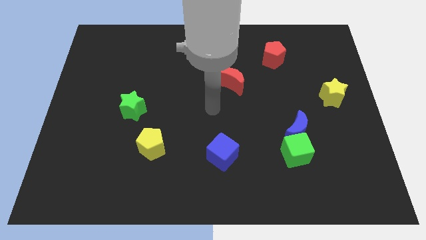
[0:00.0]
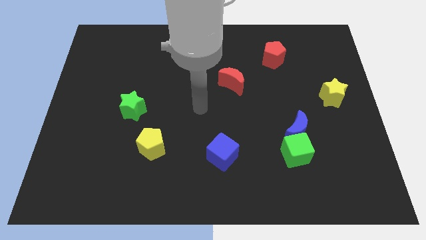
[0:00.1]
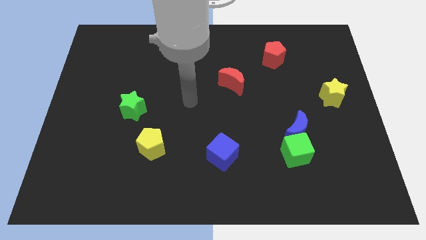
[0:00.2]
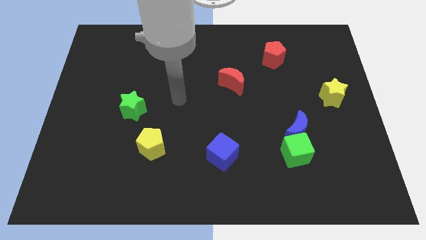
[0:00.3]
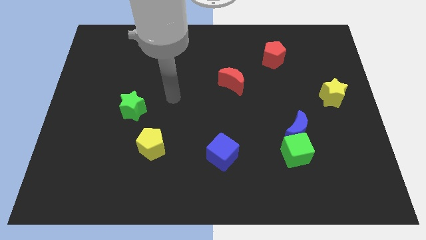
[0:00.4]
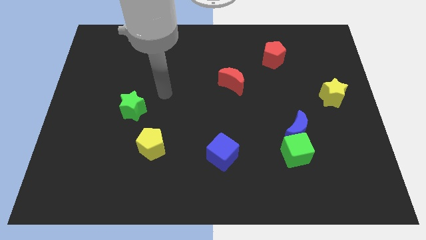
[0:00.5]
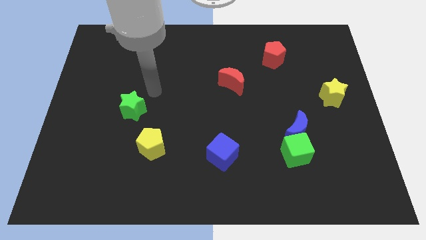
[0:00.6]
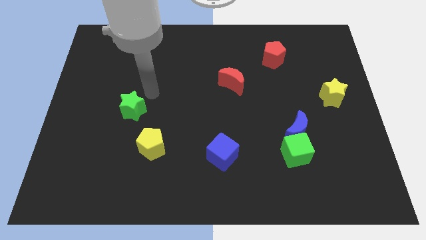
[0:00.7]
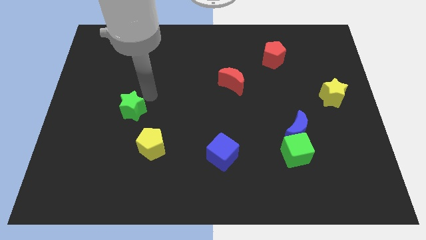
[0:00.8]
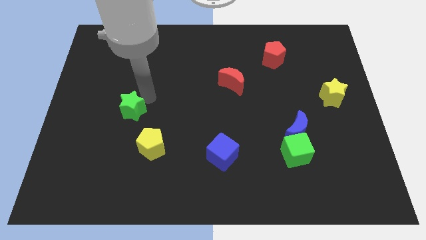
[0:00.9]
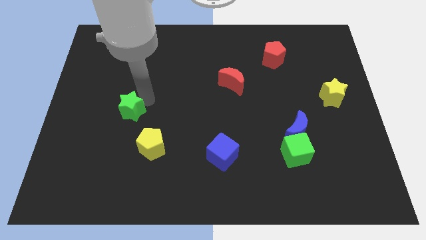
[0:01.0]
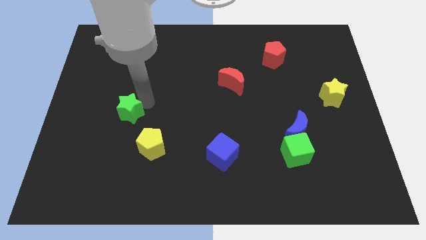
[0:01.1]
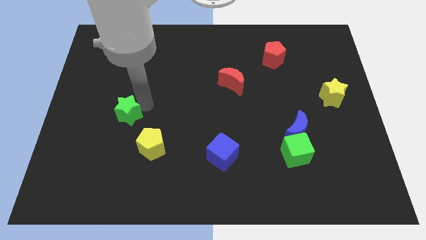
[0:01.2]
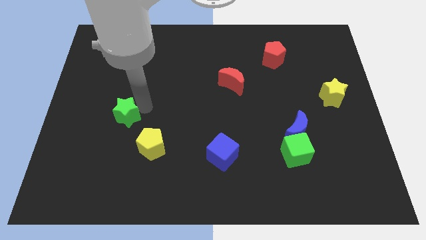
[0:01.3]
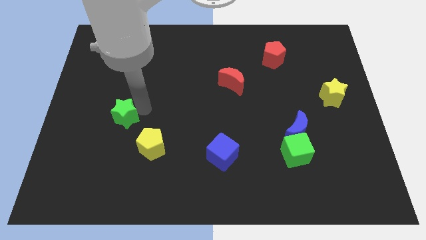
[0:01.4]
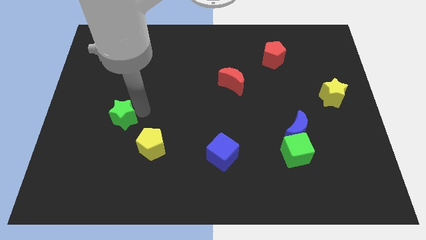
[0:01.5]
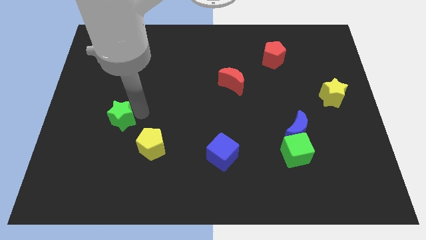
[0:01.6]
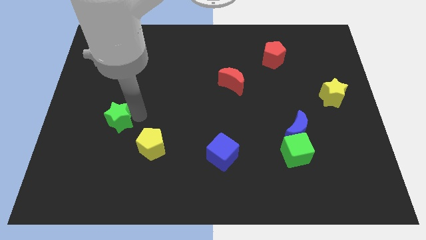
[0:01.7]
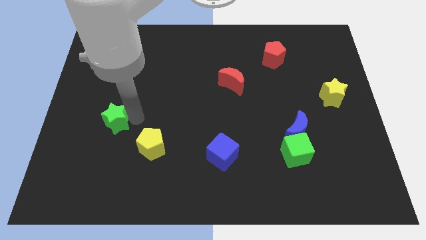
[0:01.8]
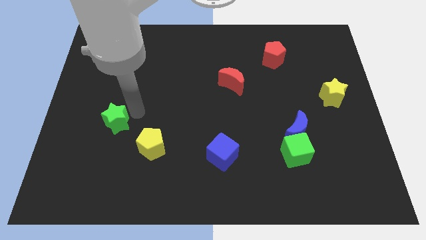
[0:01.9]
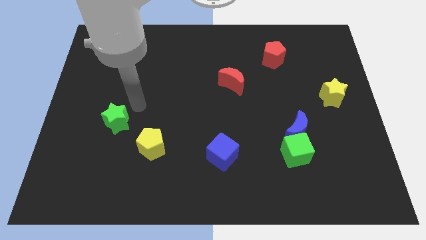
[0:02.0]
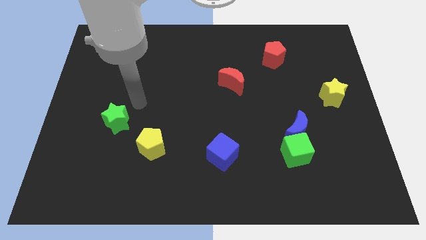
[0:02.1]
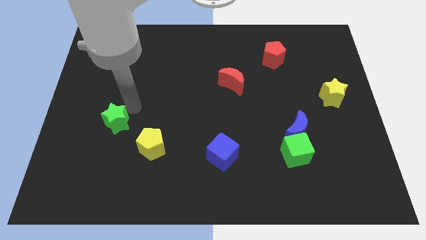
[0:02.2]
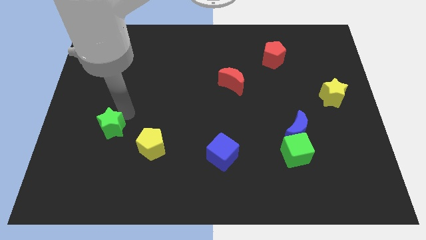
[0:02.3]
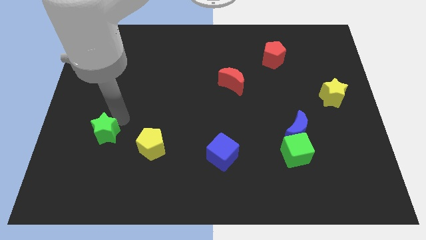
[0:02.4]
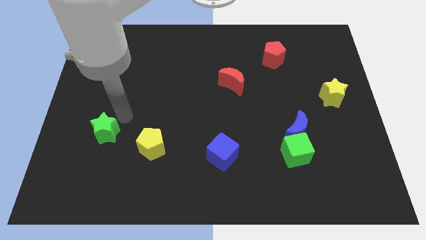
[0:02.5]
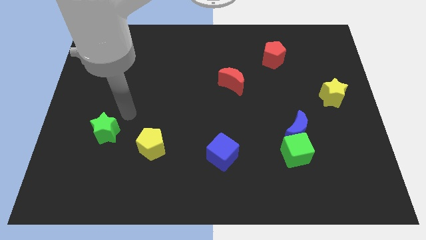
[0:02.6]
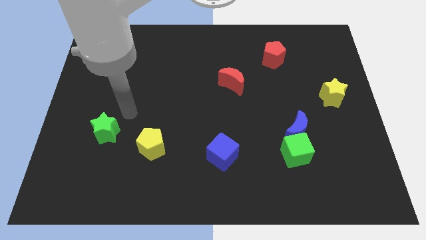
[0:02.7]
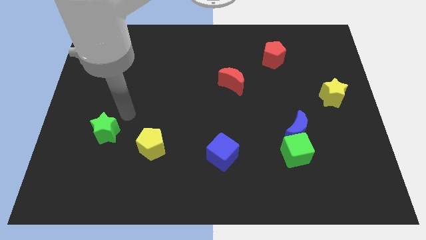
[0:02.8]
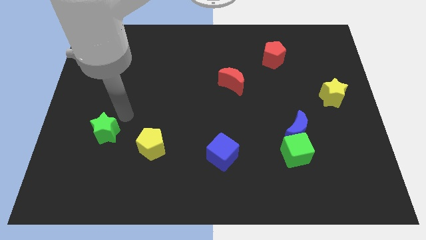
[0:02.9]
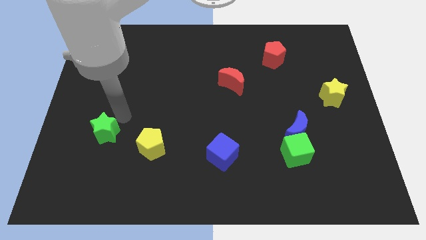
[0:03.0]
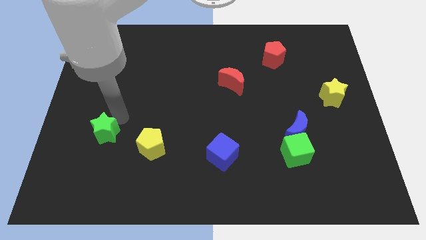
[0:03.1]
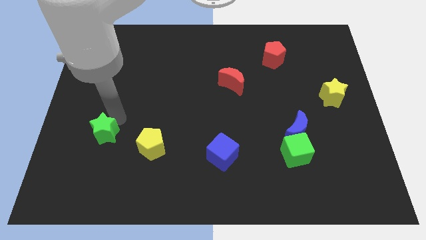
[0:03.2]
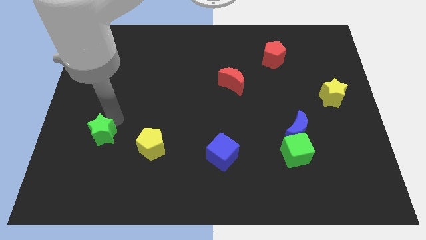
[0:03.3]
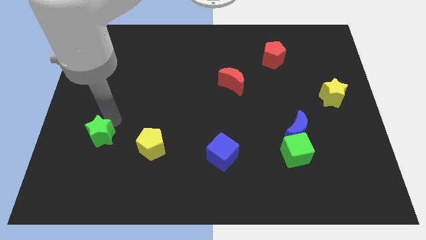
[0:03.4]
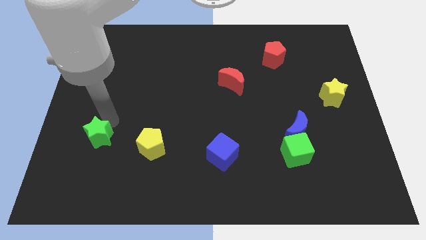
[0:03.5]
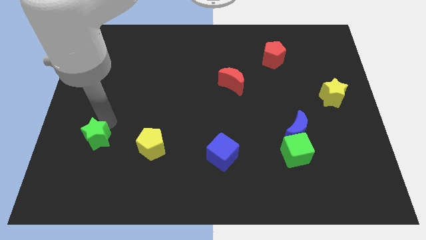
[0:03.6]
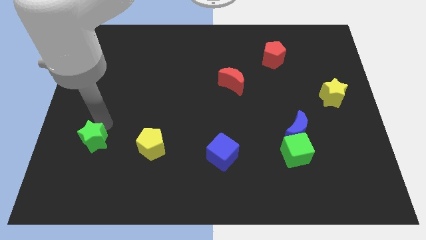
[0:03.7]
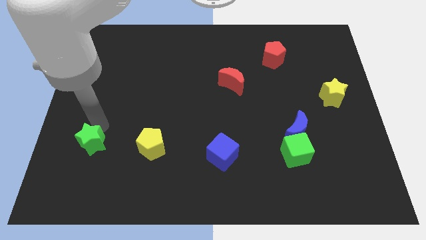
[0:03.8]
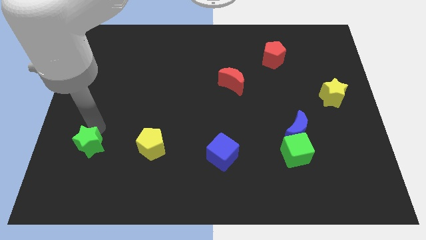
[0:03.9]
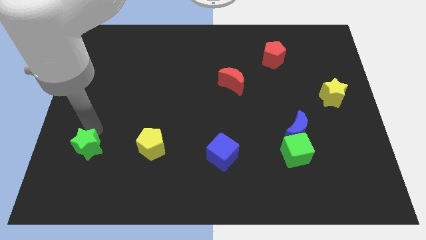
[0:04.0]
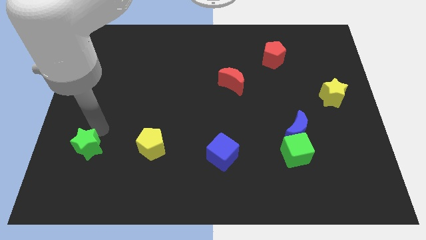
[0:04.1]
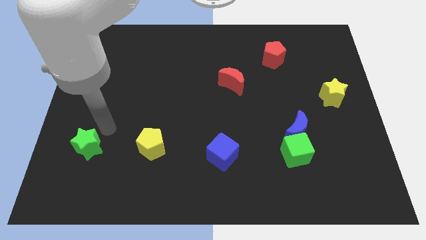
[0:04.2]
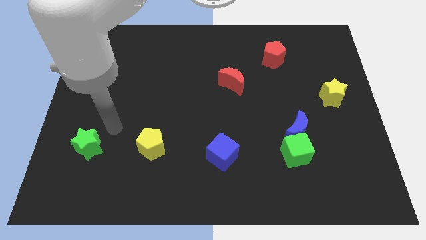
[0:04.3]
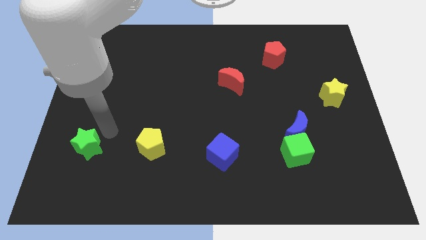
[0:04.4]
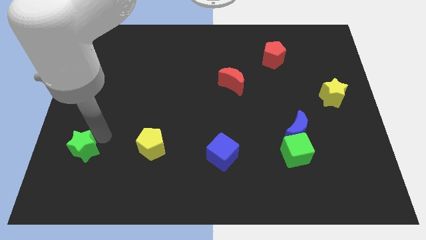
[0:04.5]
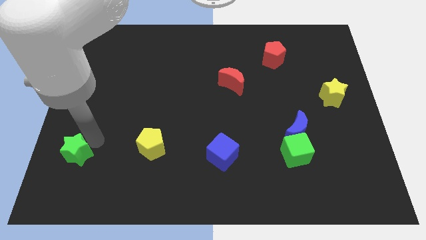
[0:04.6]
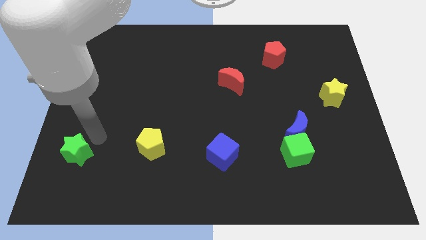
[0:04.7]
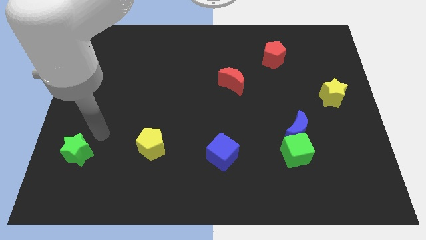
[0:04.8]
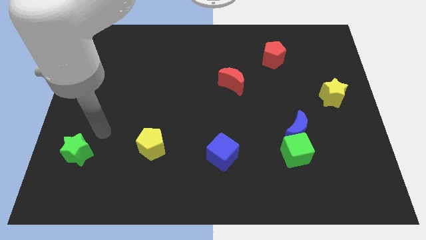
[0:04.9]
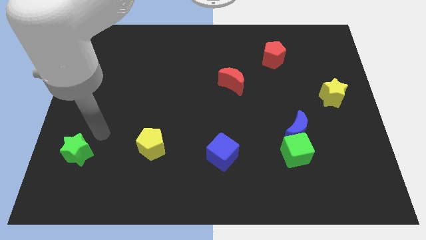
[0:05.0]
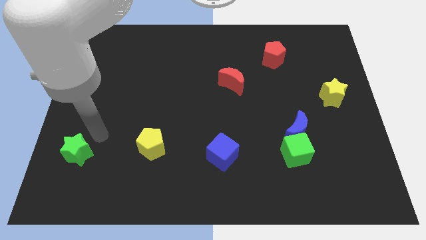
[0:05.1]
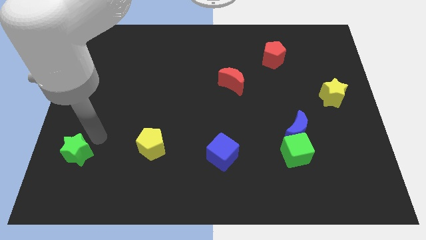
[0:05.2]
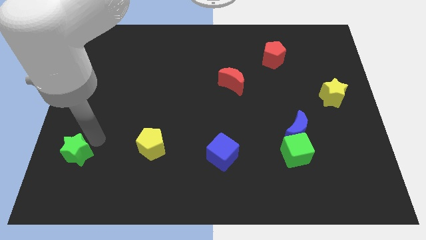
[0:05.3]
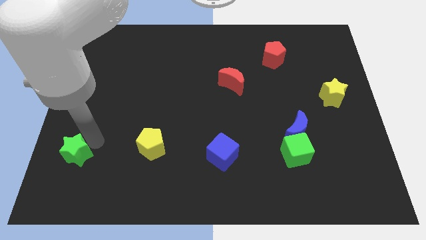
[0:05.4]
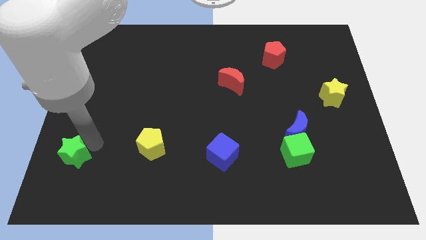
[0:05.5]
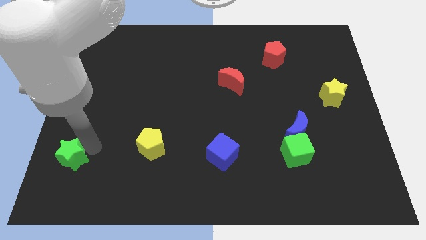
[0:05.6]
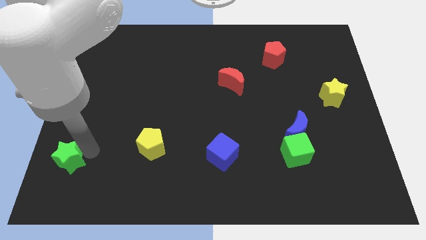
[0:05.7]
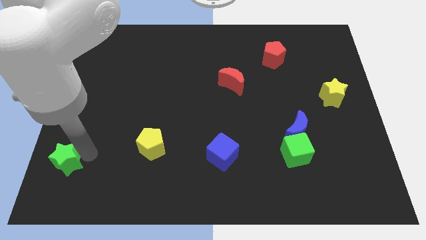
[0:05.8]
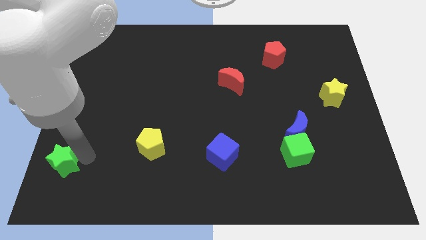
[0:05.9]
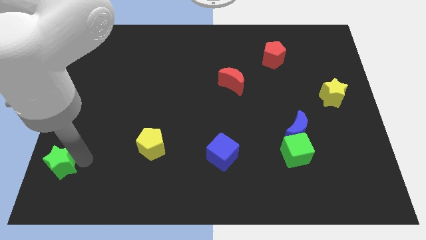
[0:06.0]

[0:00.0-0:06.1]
move the green star to the lower left corner
